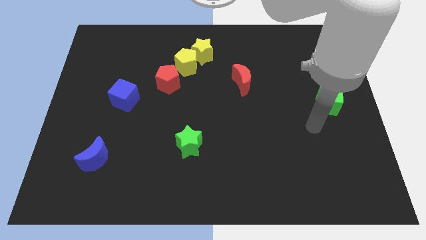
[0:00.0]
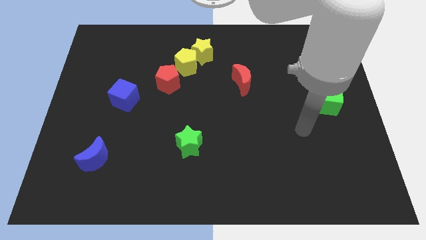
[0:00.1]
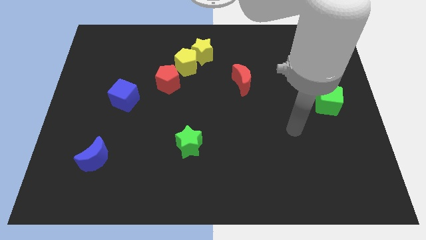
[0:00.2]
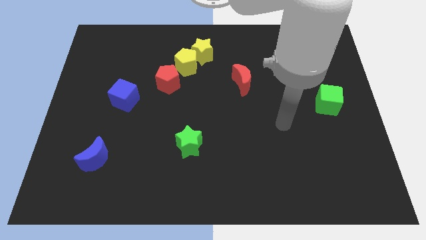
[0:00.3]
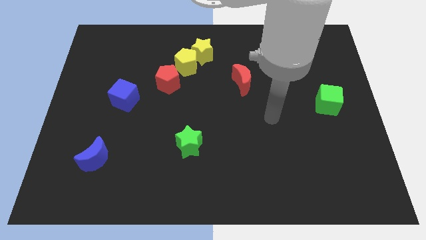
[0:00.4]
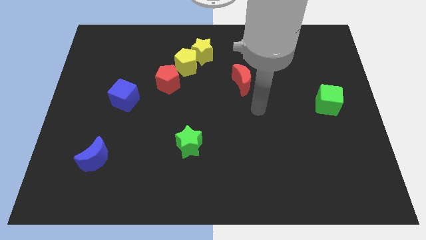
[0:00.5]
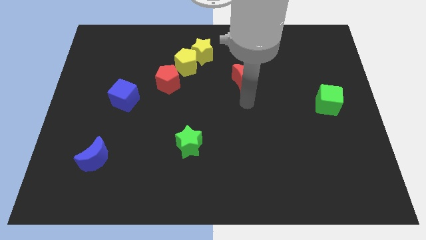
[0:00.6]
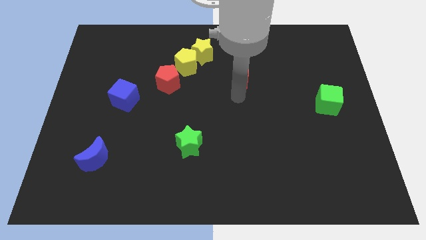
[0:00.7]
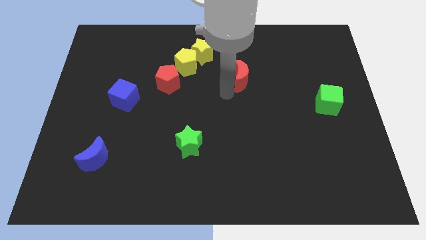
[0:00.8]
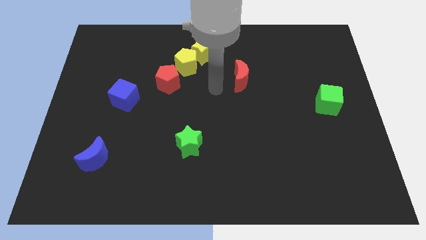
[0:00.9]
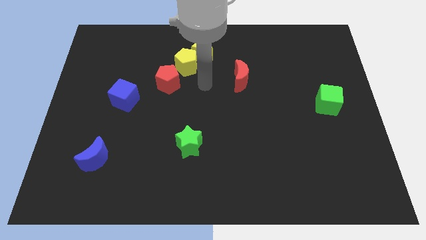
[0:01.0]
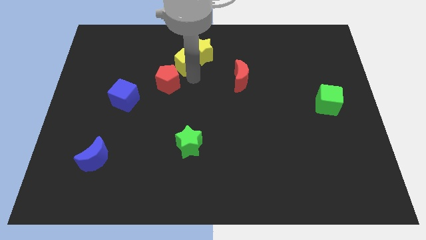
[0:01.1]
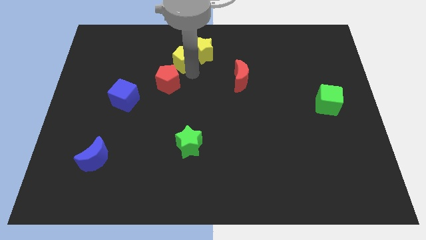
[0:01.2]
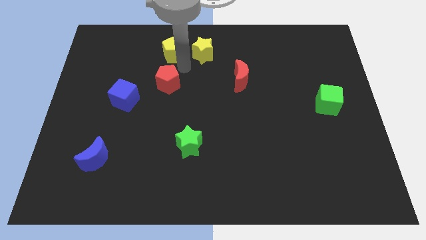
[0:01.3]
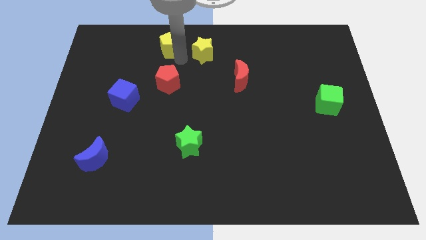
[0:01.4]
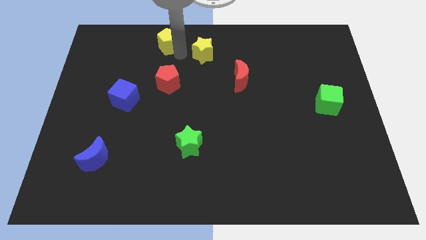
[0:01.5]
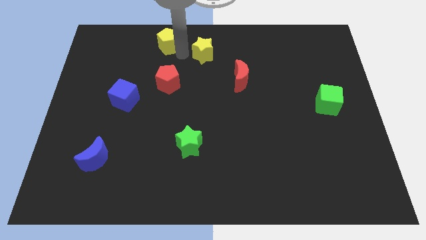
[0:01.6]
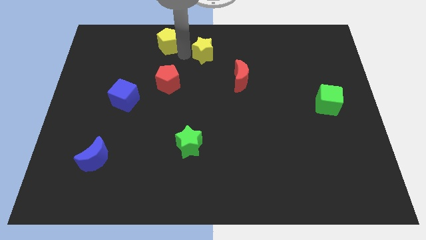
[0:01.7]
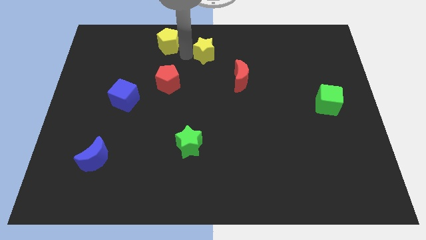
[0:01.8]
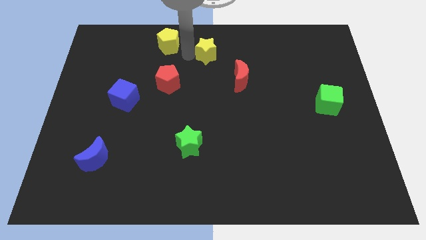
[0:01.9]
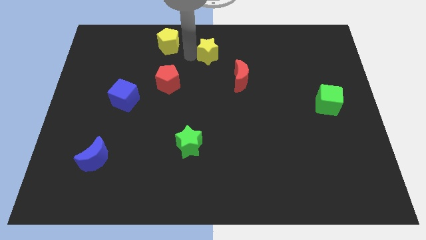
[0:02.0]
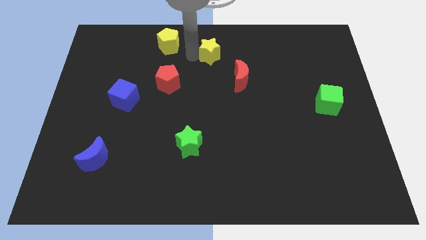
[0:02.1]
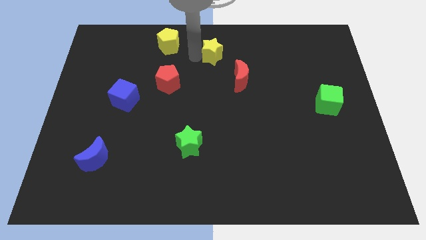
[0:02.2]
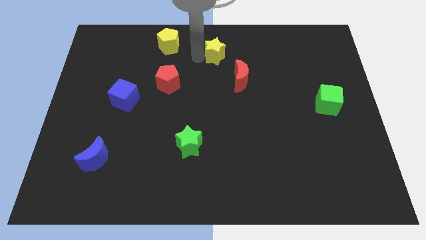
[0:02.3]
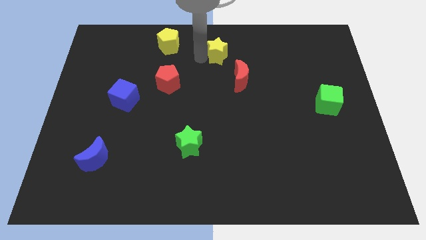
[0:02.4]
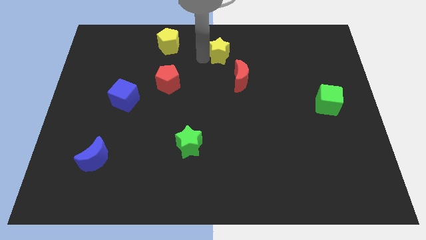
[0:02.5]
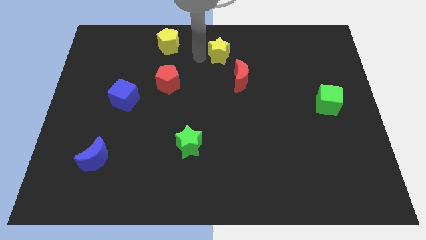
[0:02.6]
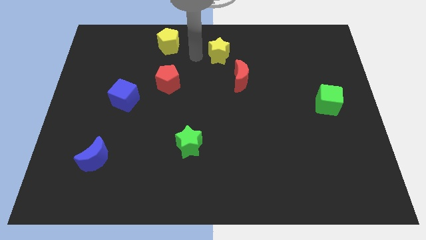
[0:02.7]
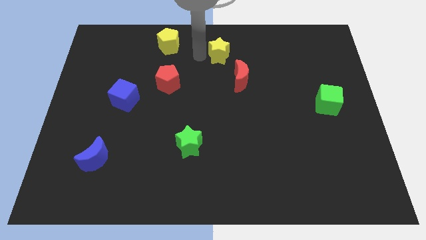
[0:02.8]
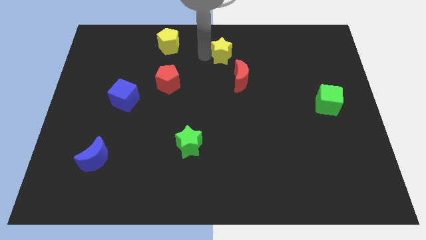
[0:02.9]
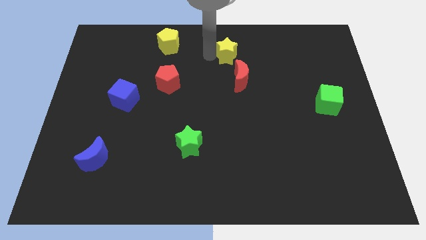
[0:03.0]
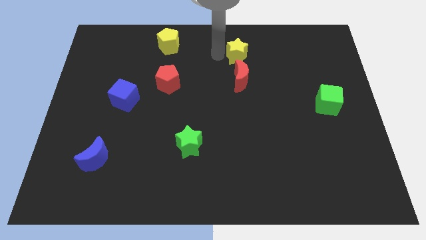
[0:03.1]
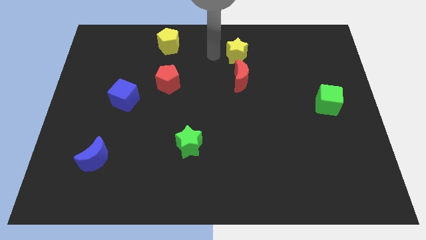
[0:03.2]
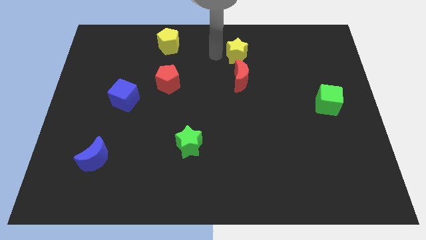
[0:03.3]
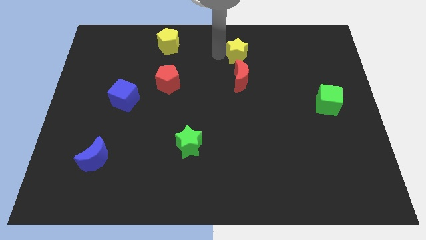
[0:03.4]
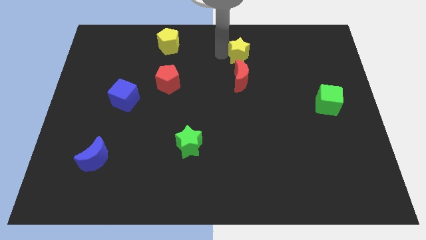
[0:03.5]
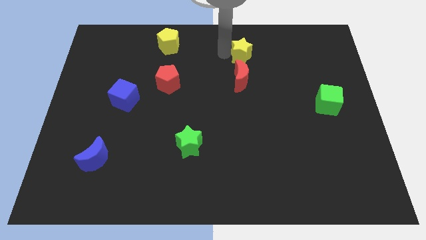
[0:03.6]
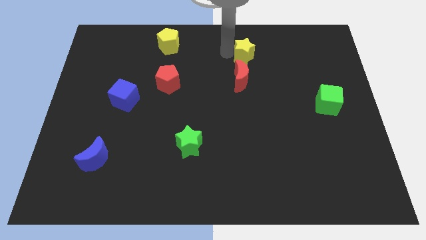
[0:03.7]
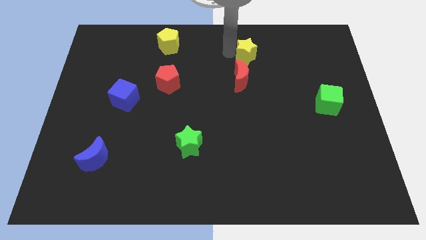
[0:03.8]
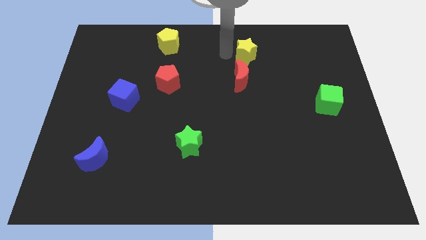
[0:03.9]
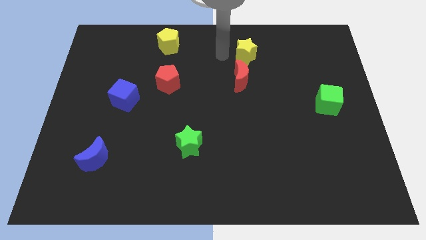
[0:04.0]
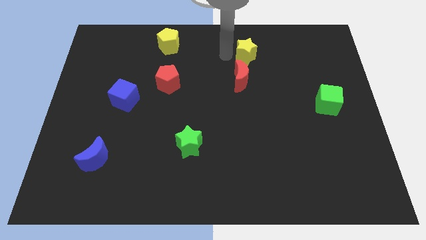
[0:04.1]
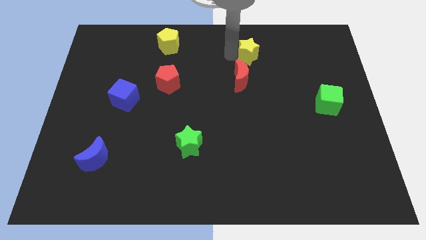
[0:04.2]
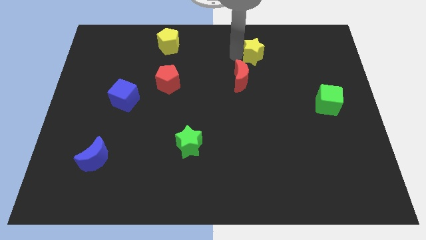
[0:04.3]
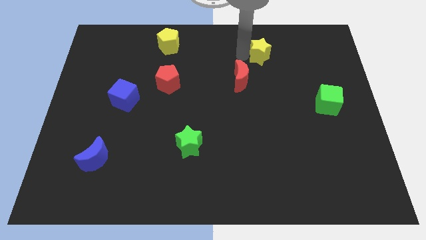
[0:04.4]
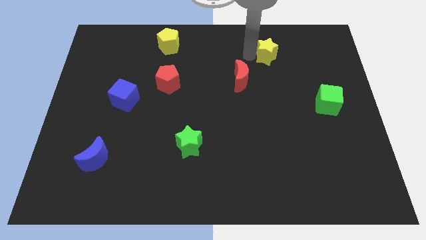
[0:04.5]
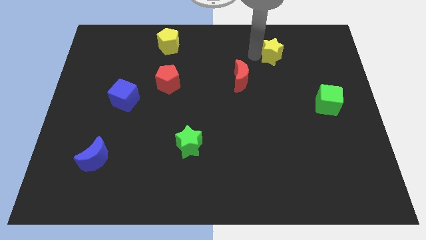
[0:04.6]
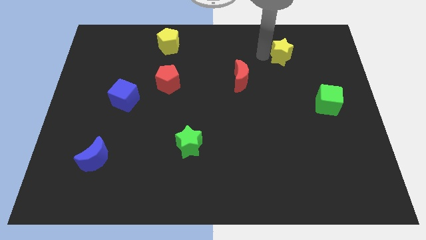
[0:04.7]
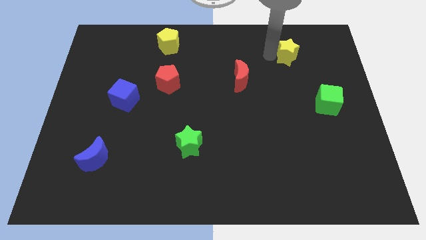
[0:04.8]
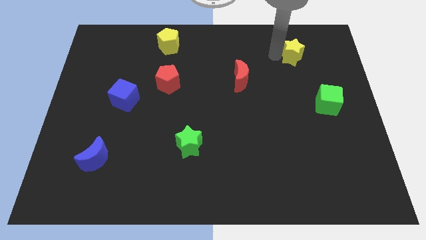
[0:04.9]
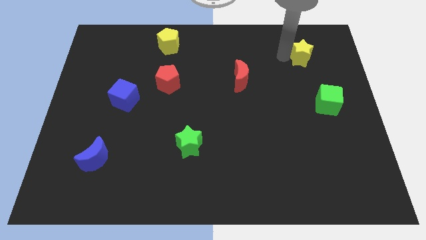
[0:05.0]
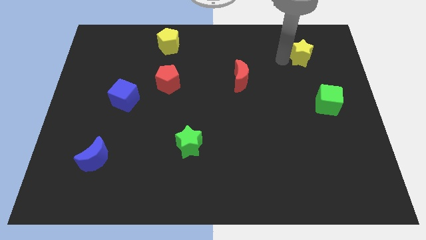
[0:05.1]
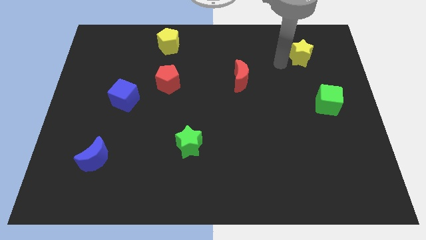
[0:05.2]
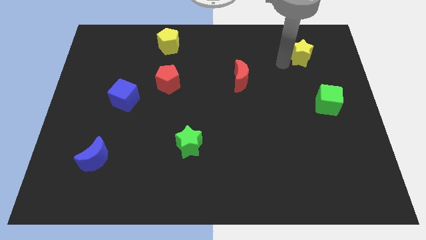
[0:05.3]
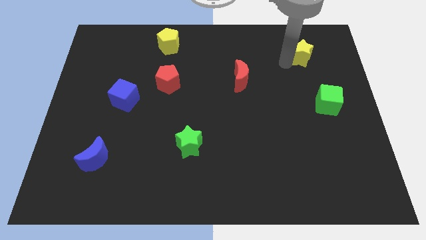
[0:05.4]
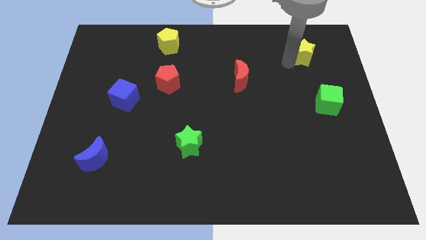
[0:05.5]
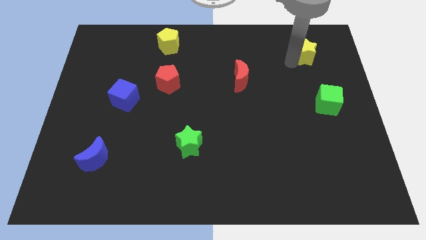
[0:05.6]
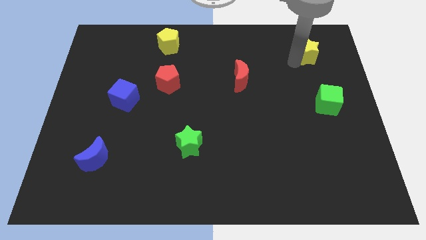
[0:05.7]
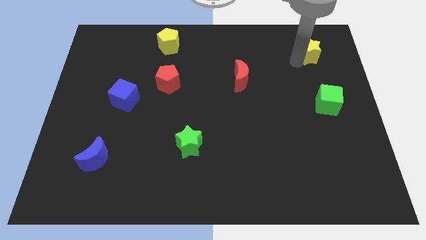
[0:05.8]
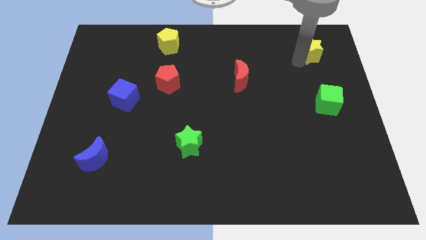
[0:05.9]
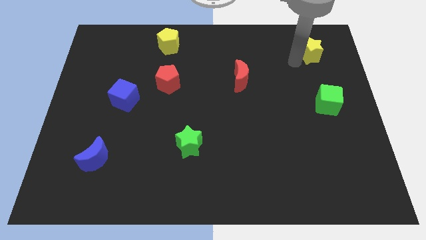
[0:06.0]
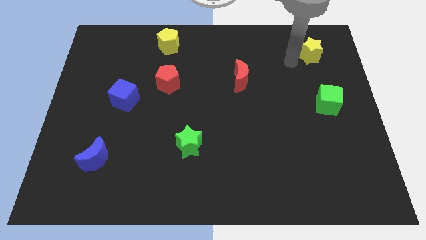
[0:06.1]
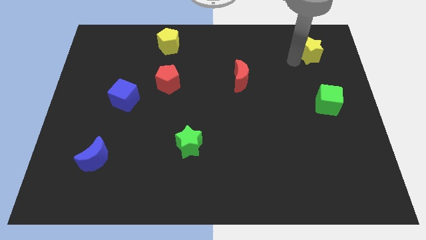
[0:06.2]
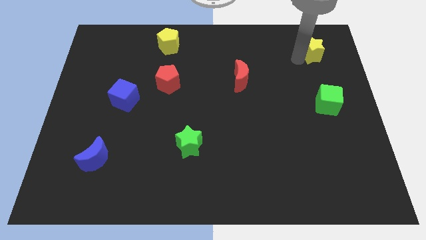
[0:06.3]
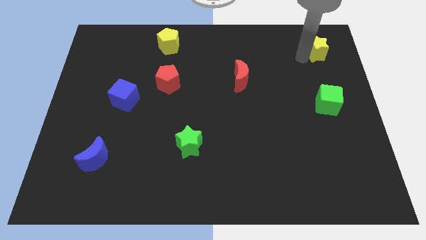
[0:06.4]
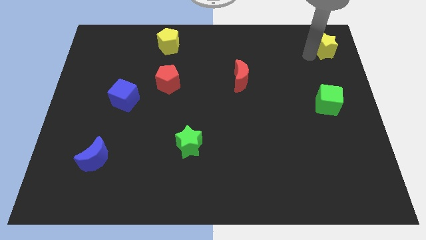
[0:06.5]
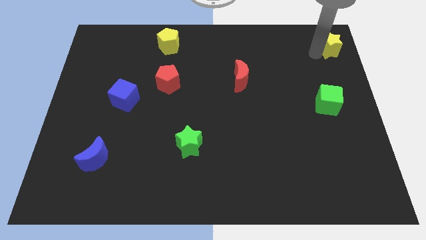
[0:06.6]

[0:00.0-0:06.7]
put the yellow star to the top right
